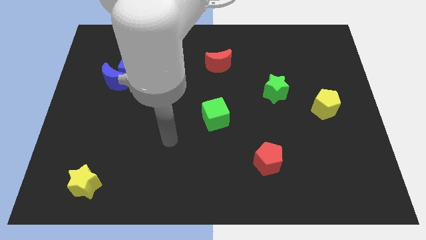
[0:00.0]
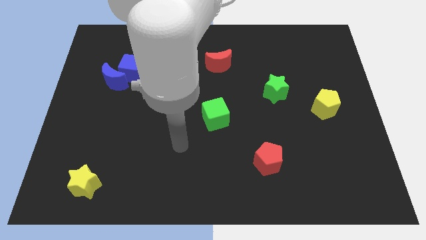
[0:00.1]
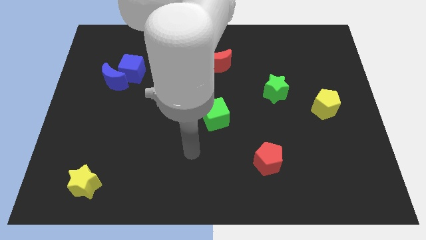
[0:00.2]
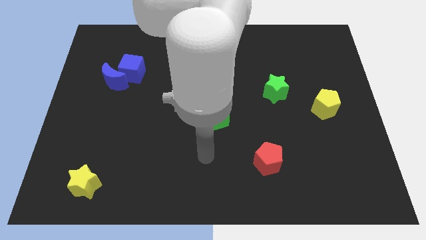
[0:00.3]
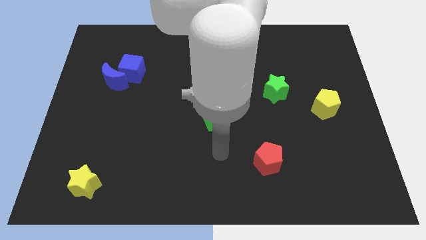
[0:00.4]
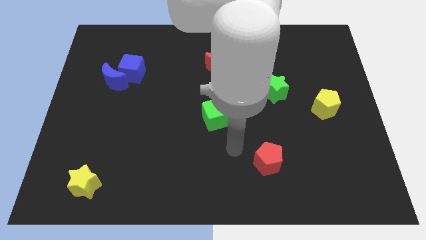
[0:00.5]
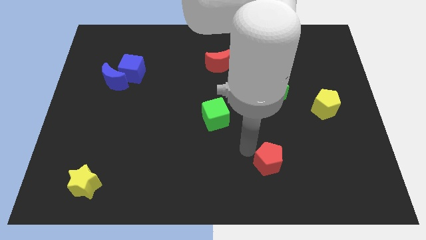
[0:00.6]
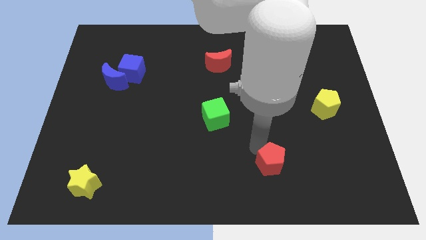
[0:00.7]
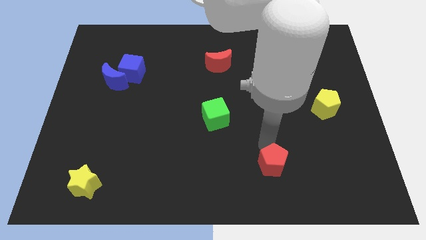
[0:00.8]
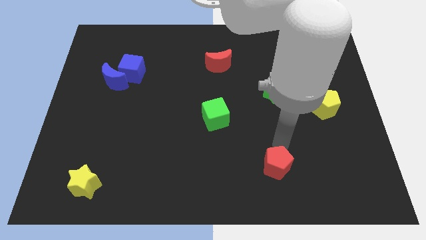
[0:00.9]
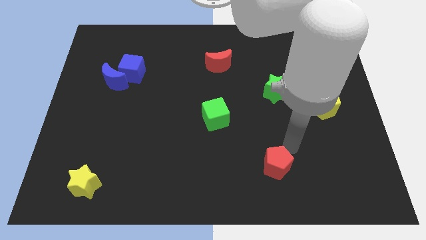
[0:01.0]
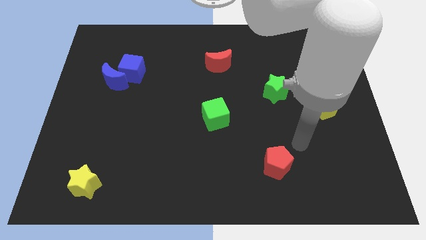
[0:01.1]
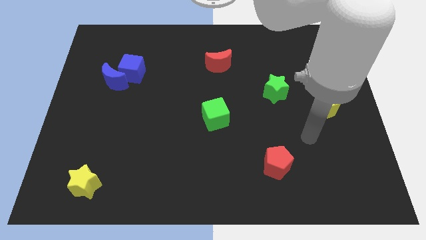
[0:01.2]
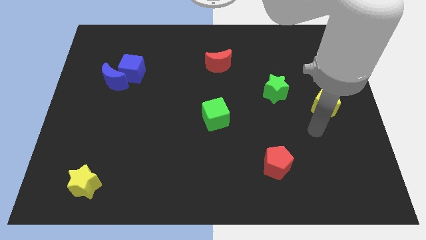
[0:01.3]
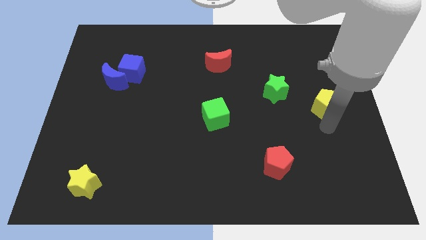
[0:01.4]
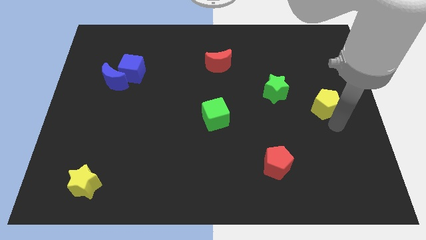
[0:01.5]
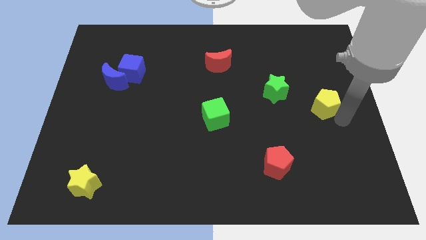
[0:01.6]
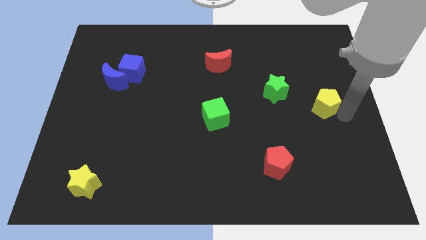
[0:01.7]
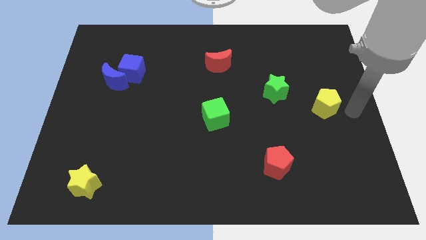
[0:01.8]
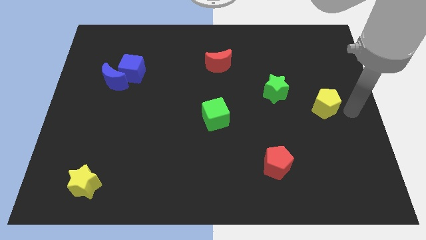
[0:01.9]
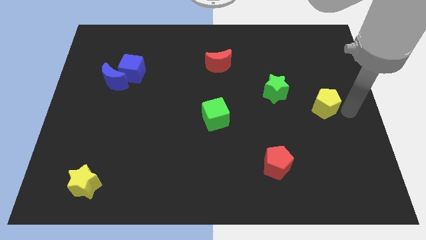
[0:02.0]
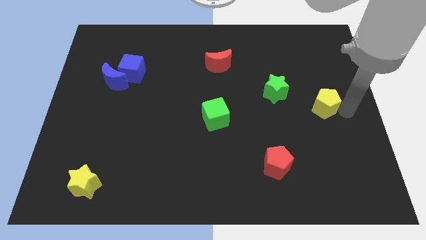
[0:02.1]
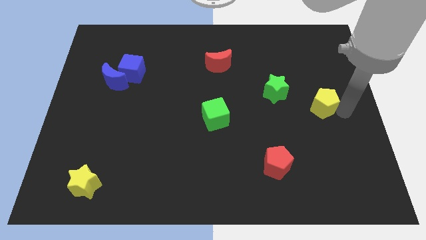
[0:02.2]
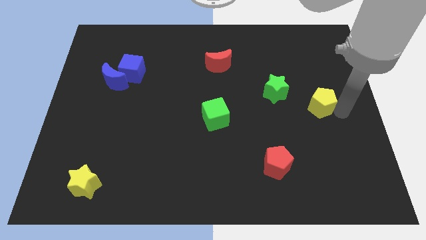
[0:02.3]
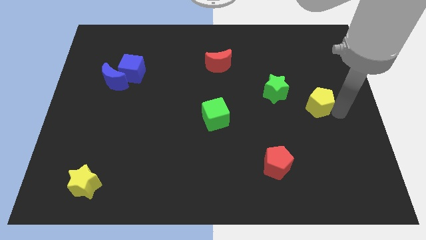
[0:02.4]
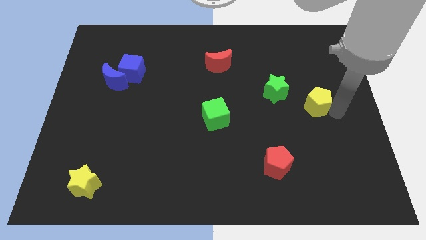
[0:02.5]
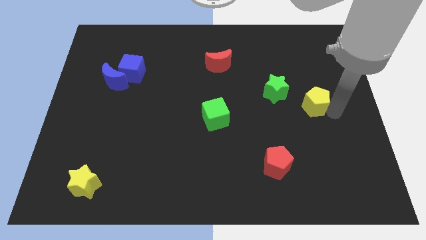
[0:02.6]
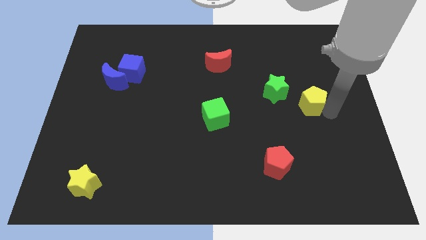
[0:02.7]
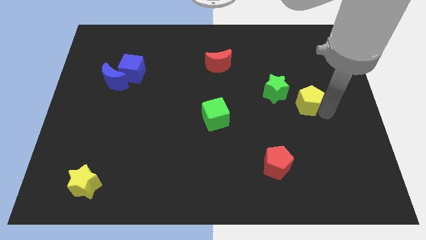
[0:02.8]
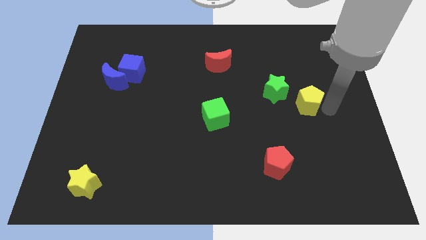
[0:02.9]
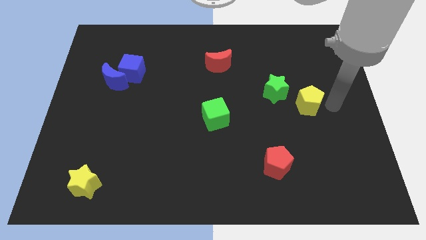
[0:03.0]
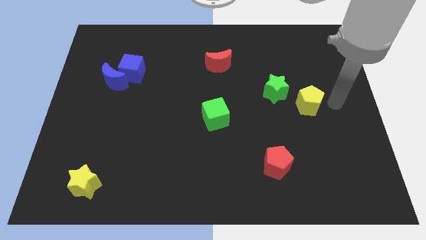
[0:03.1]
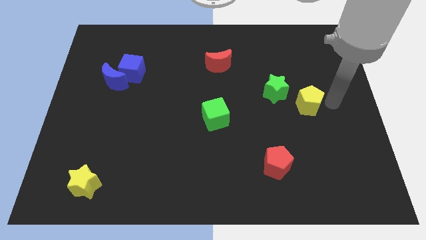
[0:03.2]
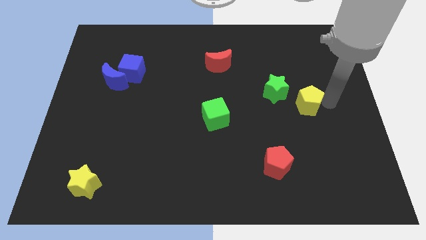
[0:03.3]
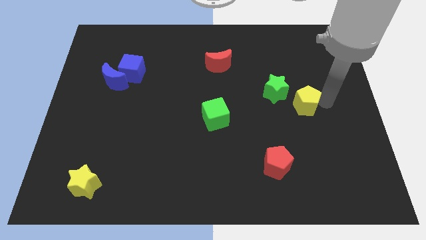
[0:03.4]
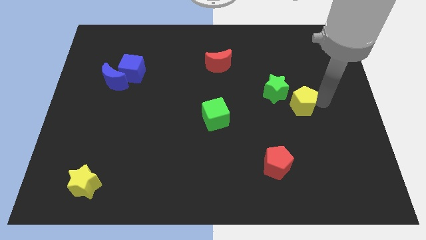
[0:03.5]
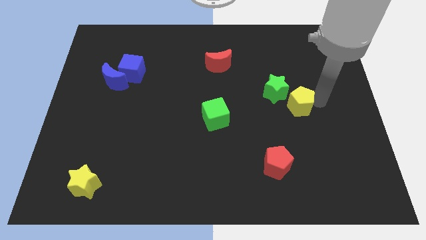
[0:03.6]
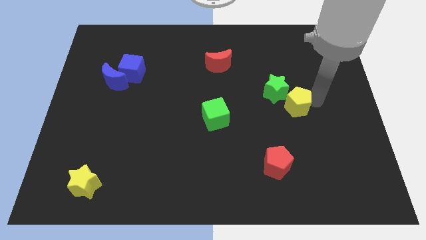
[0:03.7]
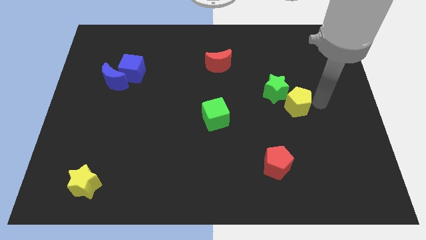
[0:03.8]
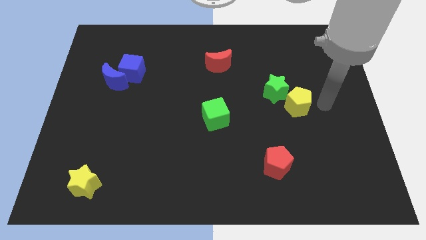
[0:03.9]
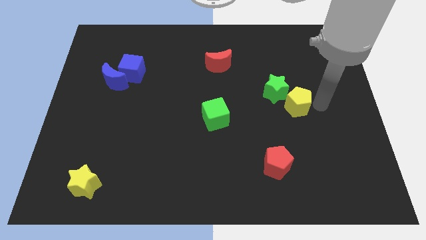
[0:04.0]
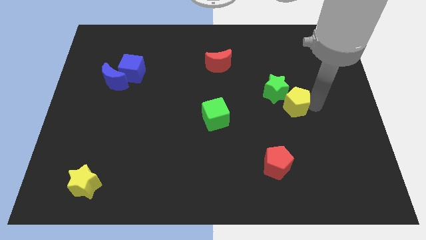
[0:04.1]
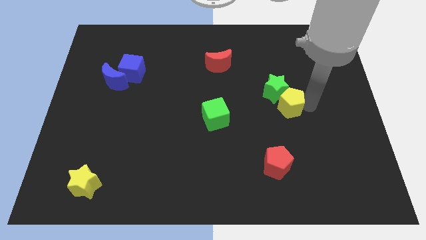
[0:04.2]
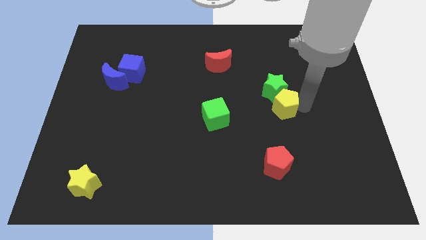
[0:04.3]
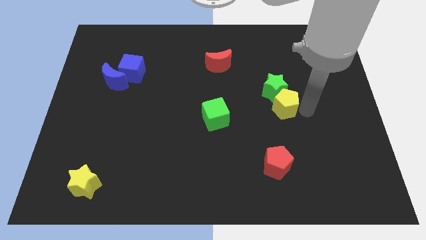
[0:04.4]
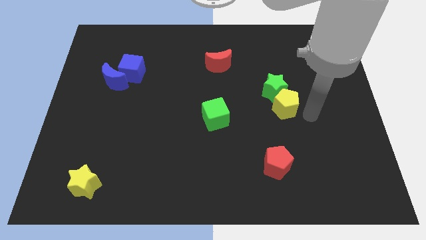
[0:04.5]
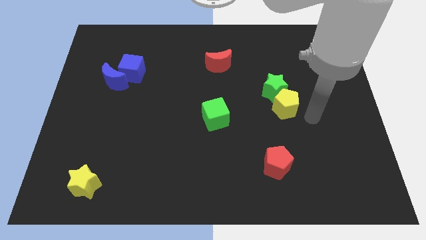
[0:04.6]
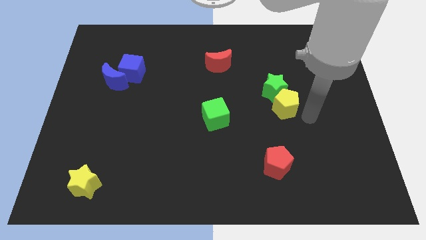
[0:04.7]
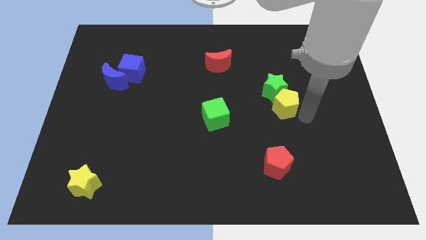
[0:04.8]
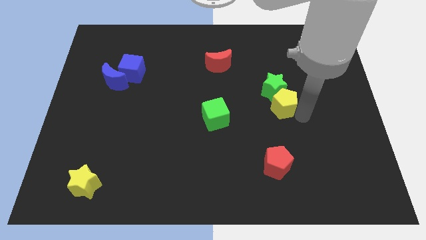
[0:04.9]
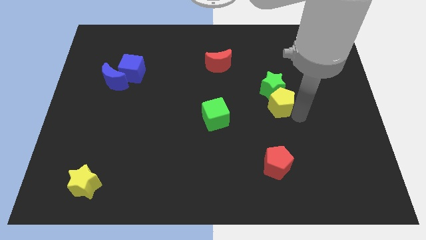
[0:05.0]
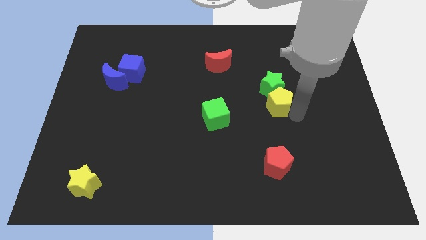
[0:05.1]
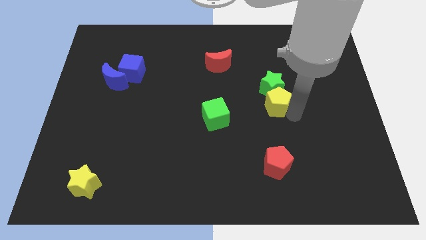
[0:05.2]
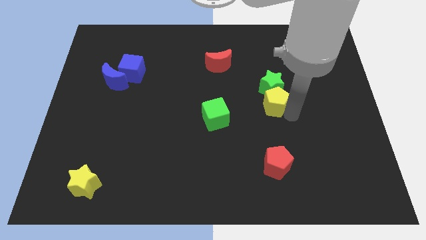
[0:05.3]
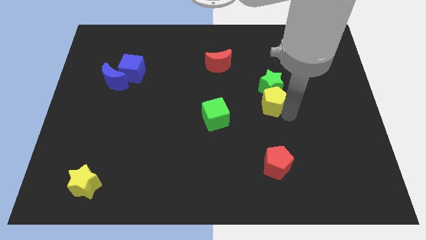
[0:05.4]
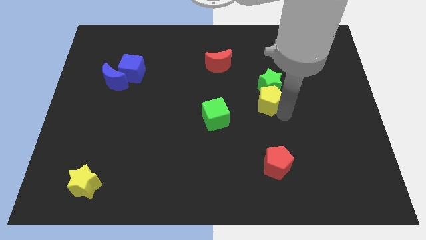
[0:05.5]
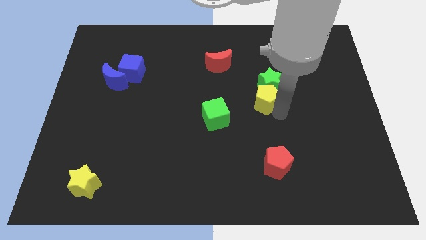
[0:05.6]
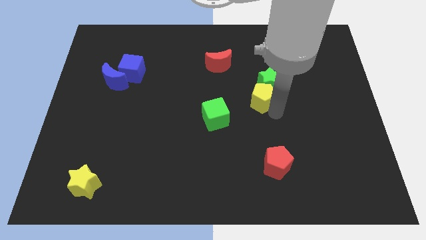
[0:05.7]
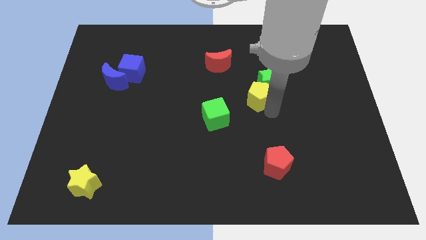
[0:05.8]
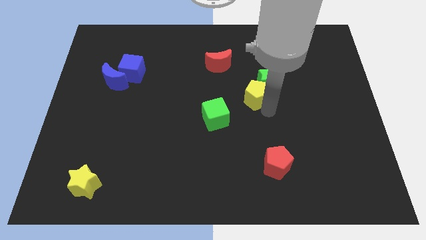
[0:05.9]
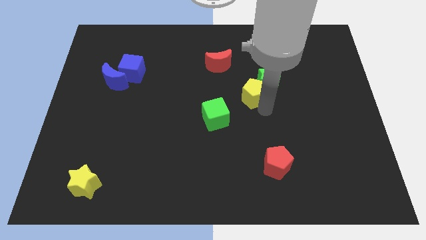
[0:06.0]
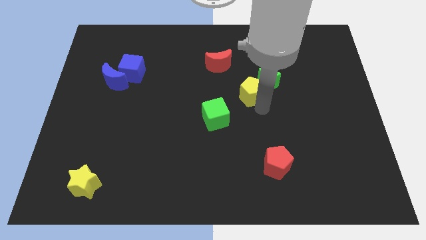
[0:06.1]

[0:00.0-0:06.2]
push the yellow pentagon to the bottom right side of the red moon

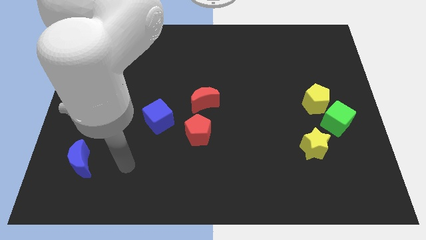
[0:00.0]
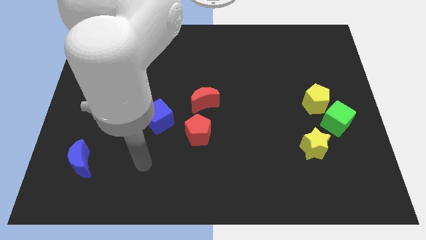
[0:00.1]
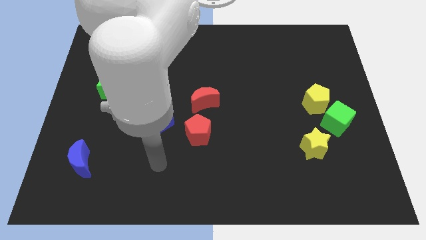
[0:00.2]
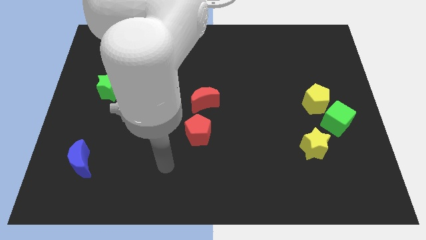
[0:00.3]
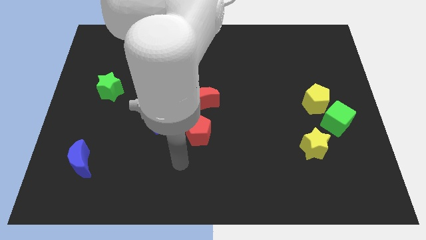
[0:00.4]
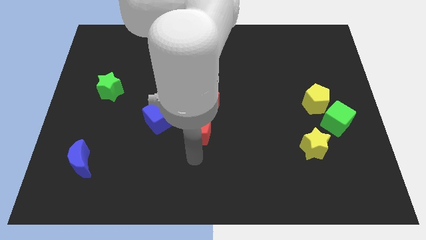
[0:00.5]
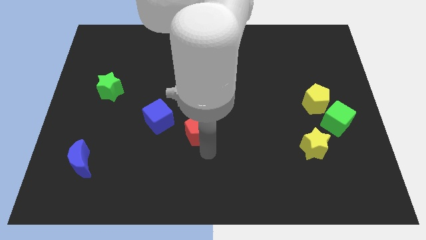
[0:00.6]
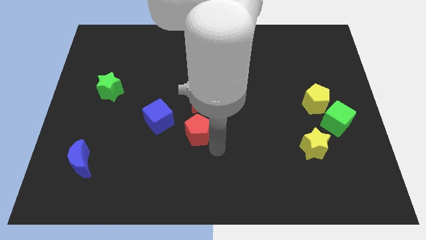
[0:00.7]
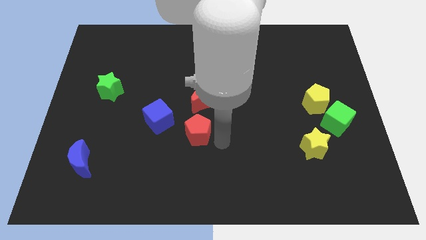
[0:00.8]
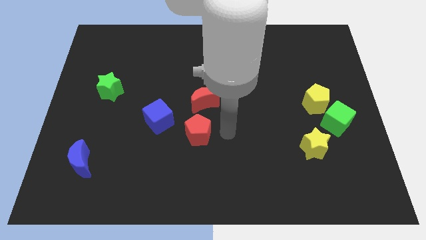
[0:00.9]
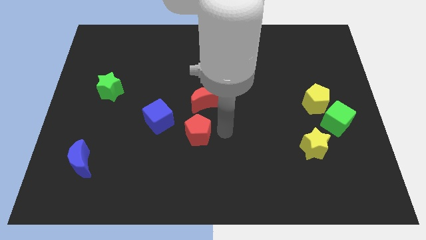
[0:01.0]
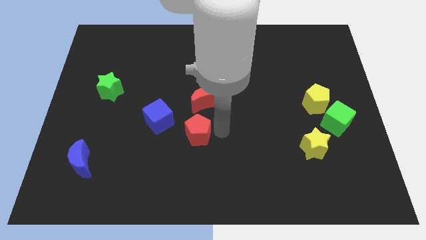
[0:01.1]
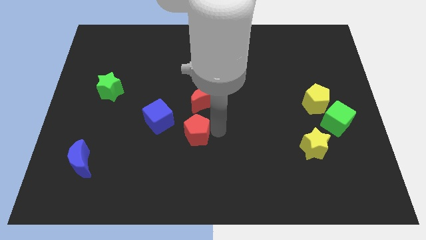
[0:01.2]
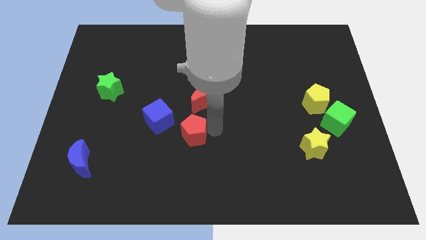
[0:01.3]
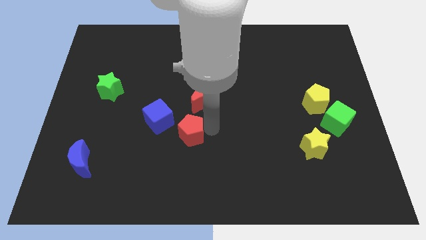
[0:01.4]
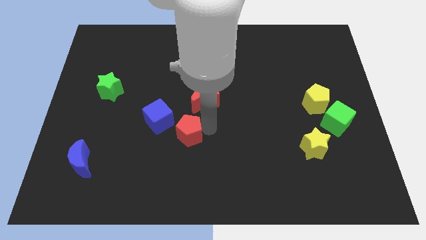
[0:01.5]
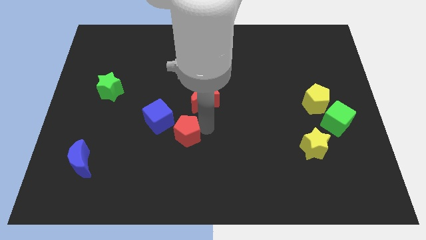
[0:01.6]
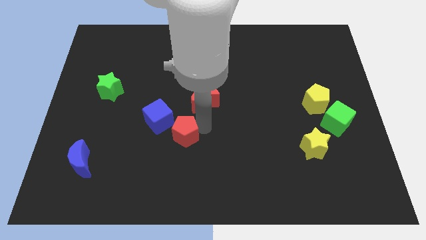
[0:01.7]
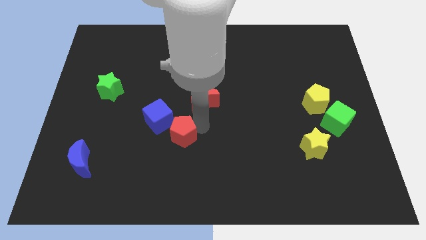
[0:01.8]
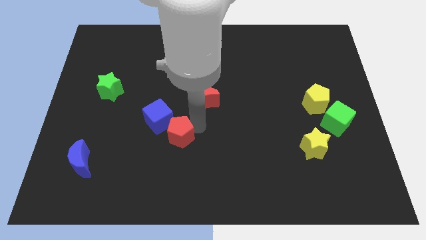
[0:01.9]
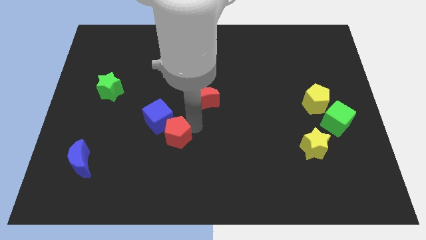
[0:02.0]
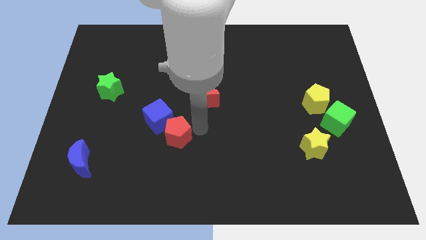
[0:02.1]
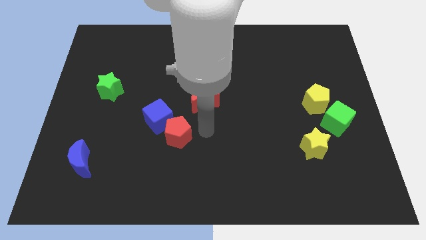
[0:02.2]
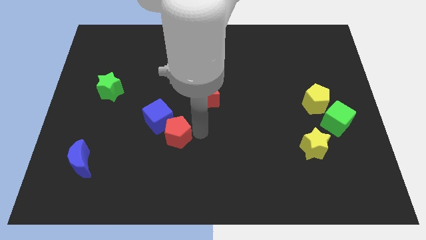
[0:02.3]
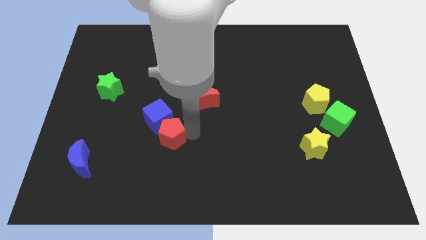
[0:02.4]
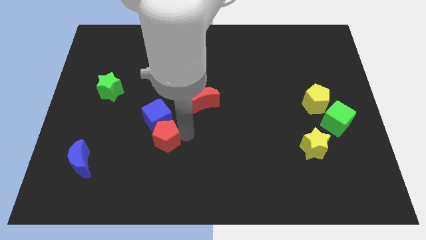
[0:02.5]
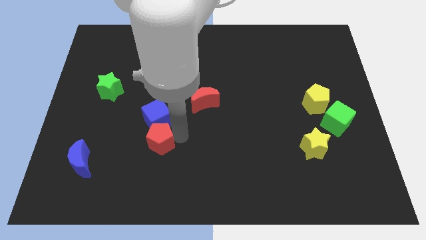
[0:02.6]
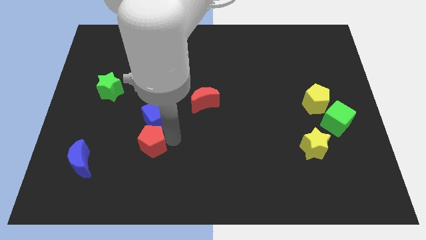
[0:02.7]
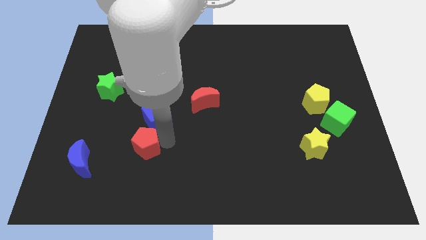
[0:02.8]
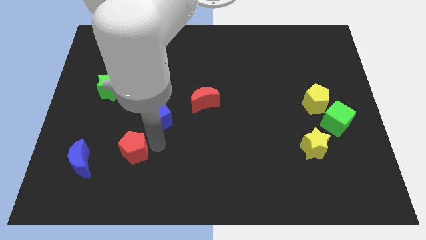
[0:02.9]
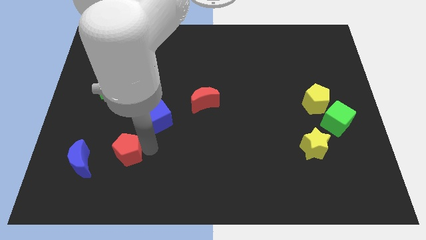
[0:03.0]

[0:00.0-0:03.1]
move the red pentagon to the top right of the blue moon
